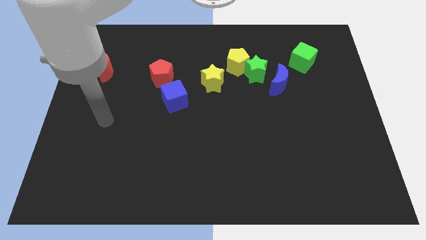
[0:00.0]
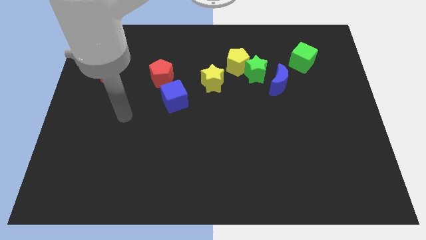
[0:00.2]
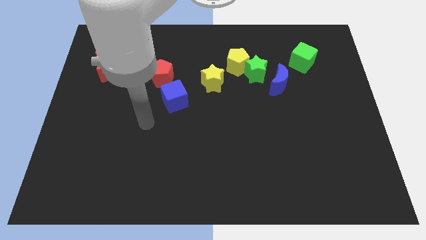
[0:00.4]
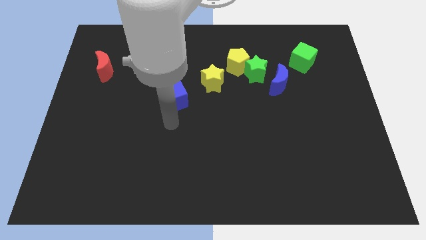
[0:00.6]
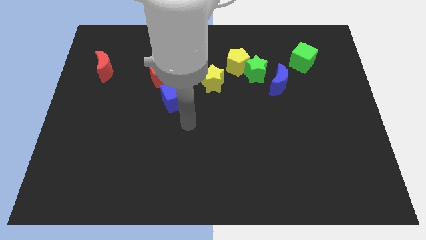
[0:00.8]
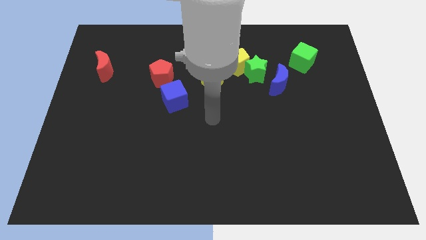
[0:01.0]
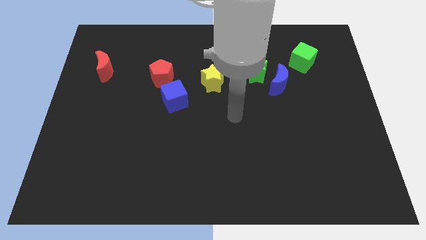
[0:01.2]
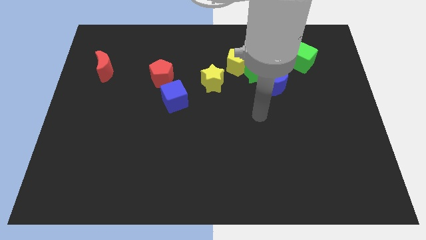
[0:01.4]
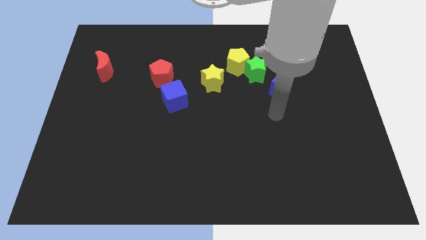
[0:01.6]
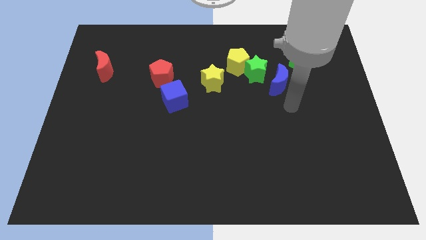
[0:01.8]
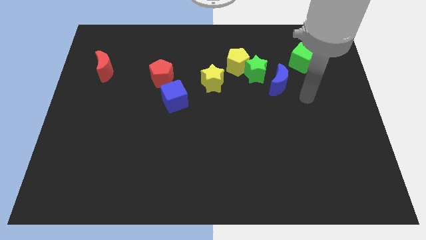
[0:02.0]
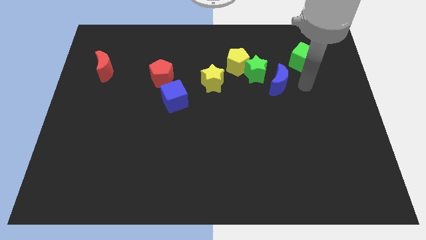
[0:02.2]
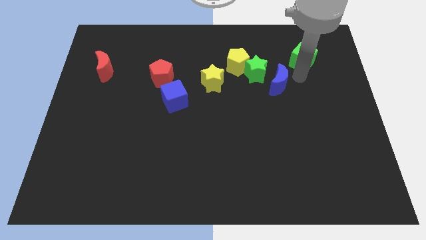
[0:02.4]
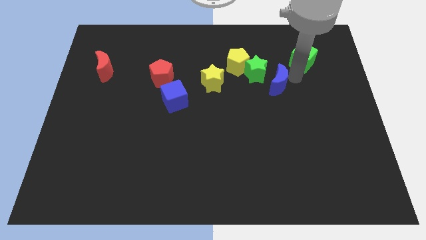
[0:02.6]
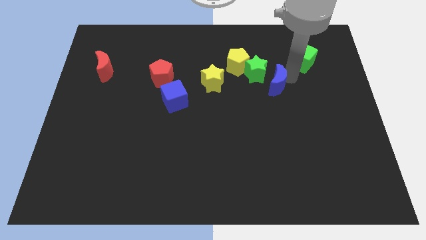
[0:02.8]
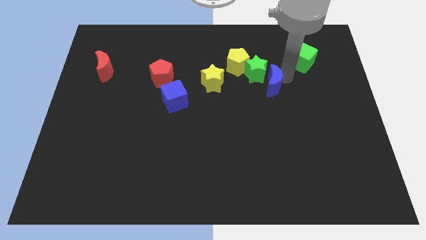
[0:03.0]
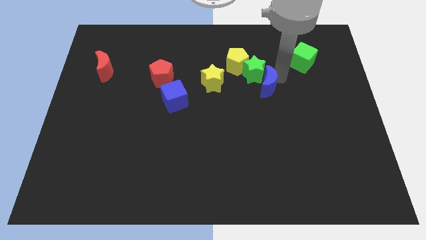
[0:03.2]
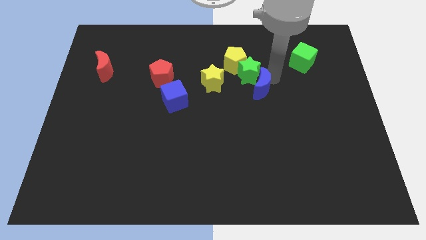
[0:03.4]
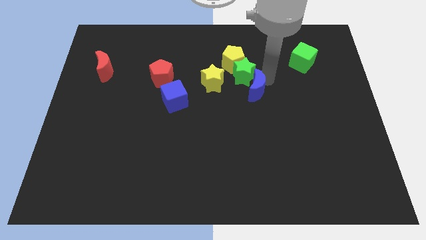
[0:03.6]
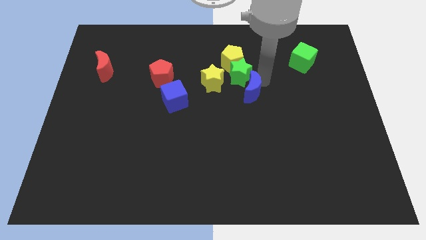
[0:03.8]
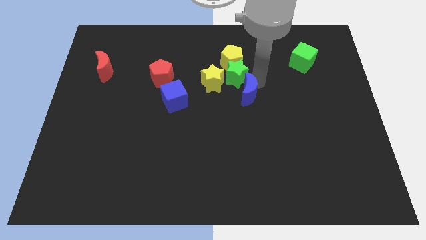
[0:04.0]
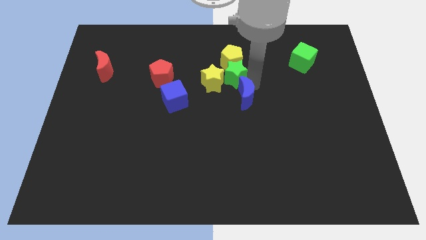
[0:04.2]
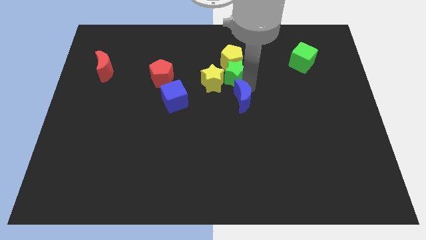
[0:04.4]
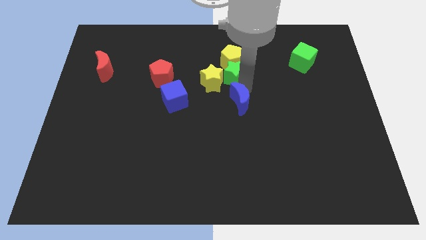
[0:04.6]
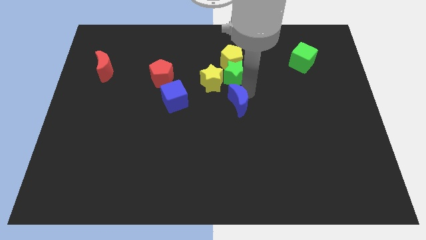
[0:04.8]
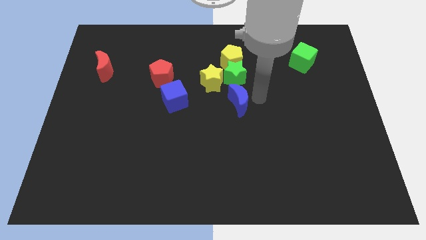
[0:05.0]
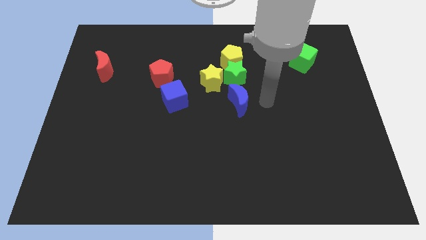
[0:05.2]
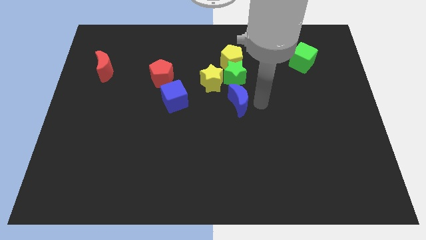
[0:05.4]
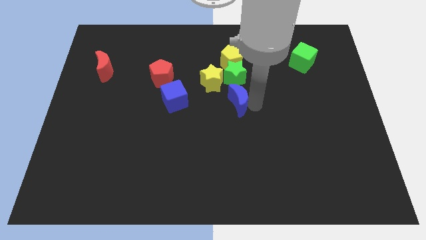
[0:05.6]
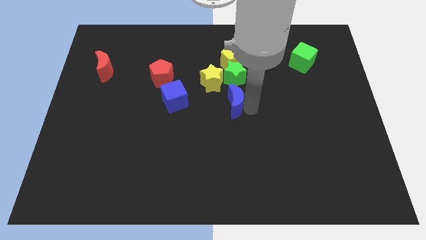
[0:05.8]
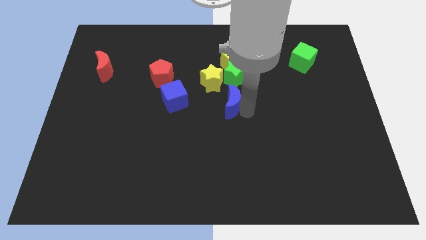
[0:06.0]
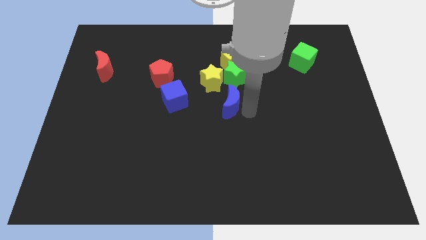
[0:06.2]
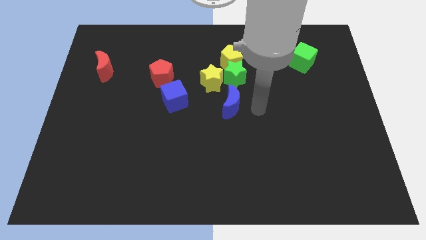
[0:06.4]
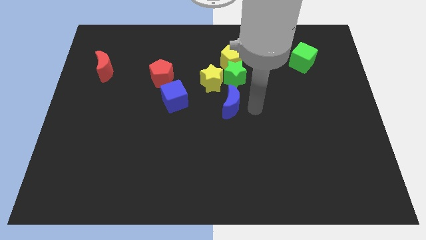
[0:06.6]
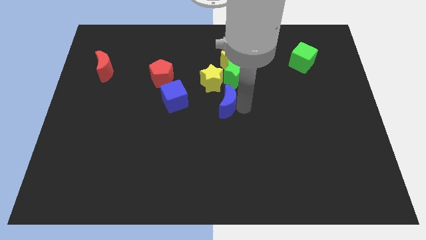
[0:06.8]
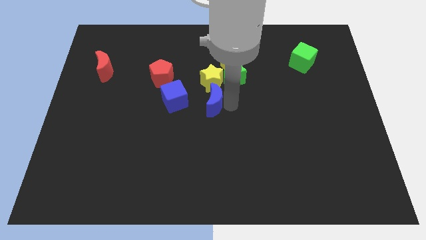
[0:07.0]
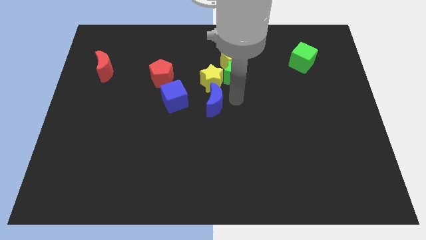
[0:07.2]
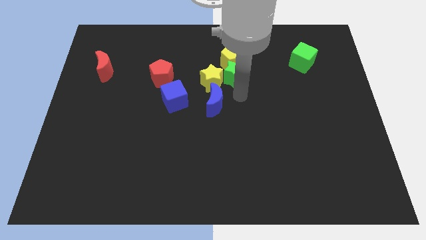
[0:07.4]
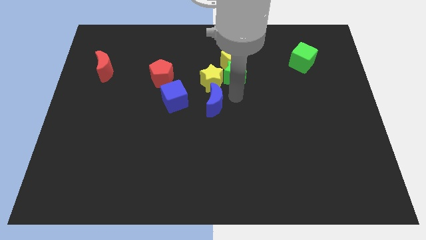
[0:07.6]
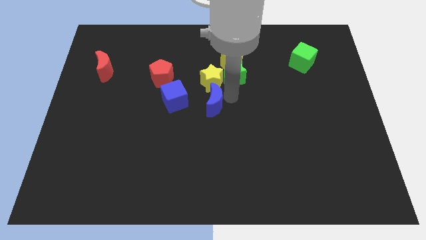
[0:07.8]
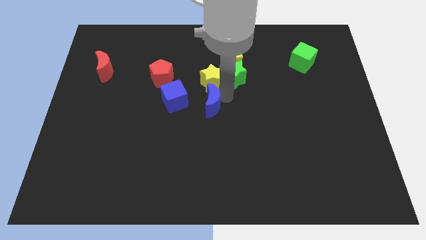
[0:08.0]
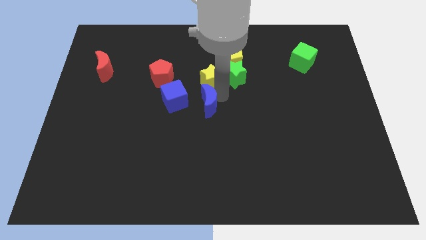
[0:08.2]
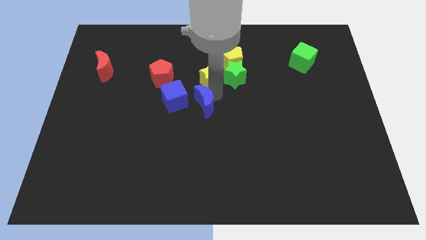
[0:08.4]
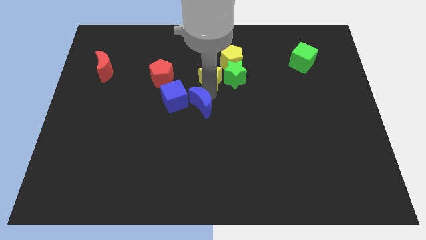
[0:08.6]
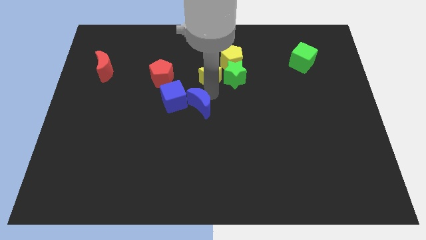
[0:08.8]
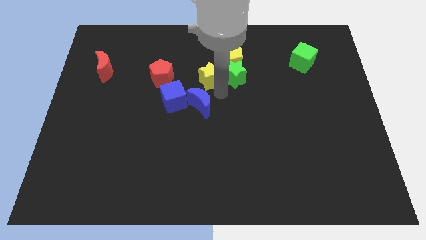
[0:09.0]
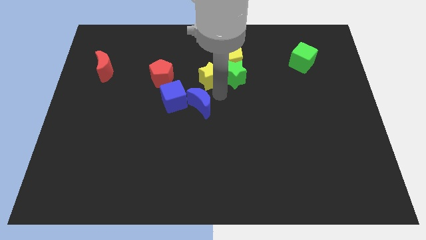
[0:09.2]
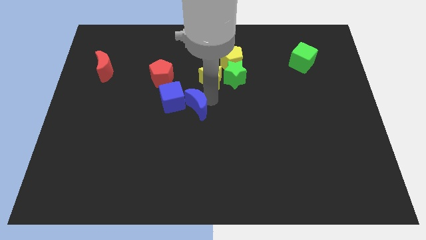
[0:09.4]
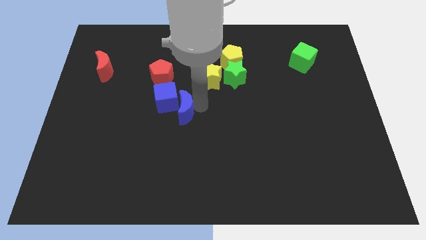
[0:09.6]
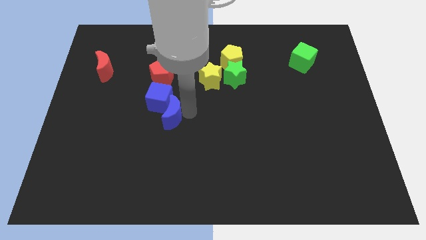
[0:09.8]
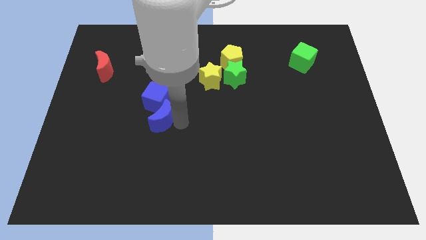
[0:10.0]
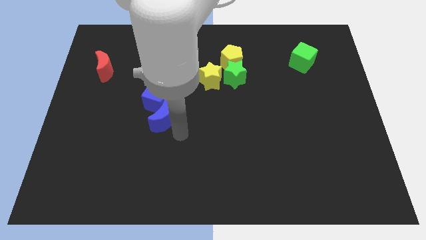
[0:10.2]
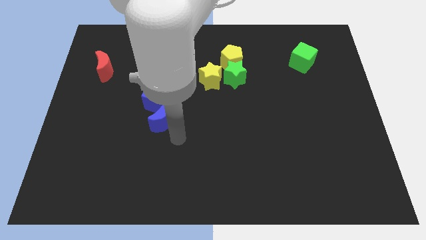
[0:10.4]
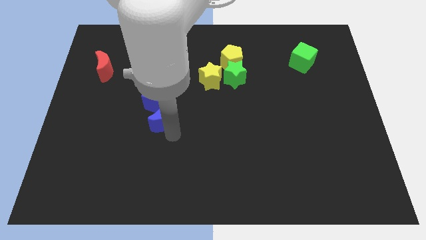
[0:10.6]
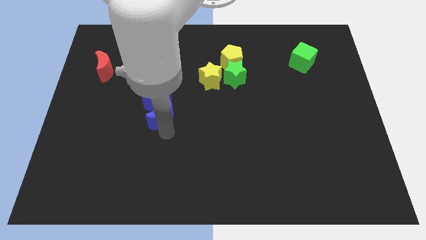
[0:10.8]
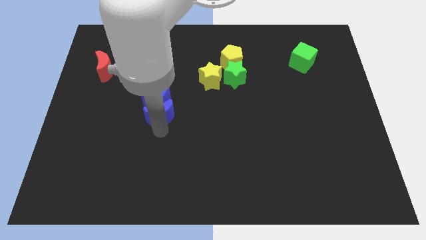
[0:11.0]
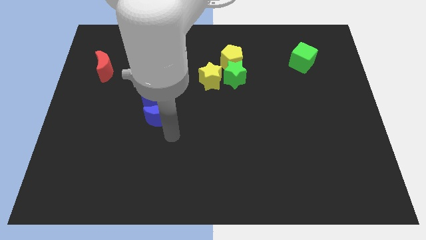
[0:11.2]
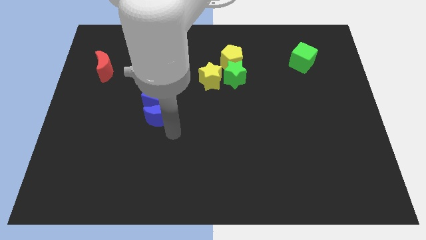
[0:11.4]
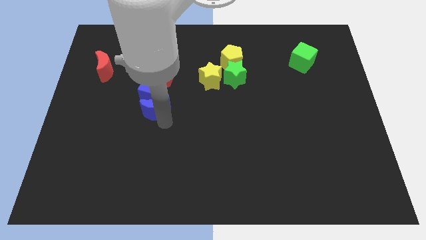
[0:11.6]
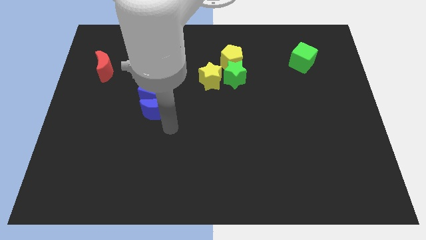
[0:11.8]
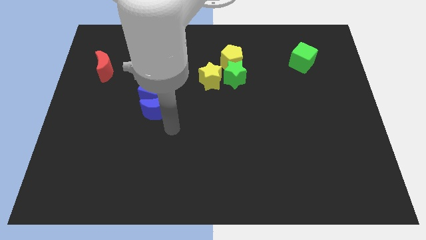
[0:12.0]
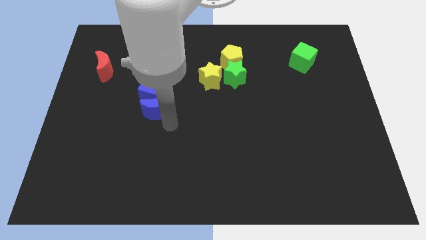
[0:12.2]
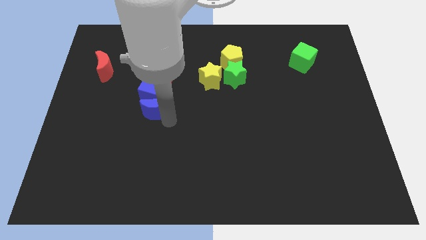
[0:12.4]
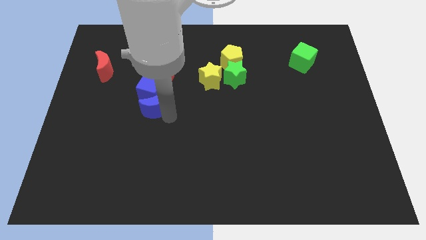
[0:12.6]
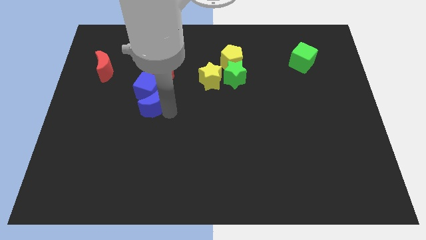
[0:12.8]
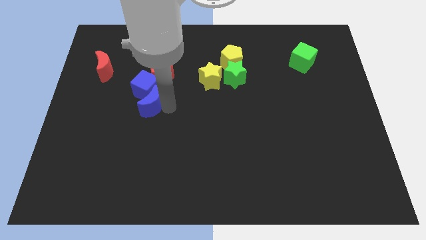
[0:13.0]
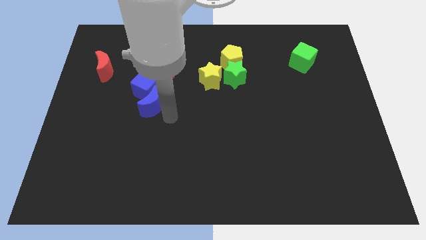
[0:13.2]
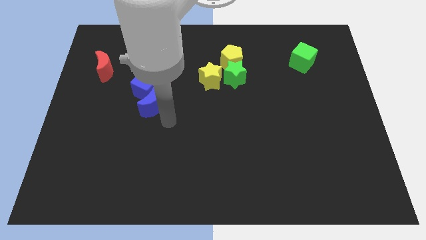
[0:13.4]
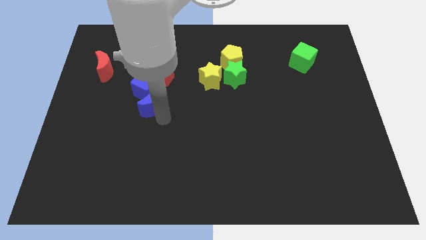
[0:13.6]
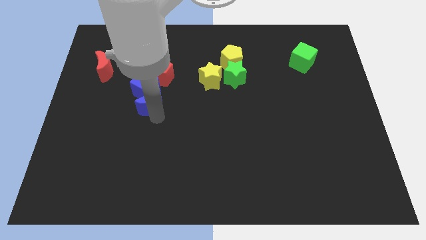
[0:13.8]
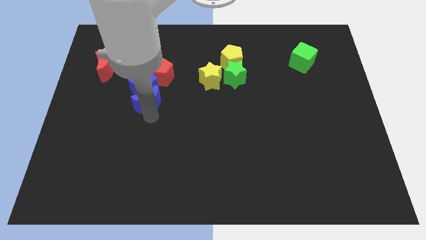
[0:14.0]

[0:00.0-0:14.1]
push the blue moon to the bottom left side of the red pentagon

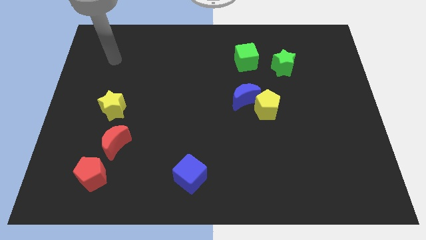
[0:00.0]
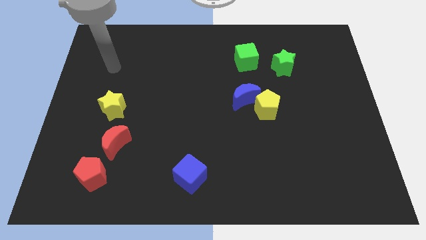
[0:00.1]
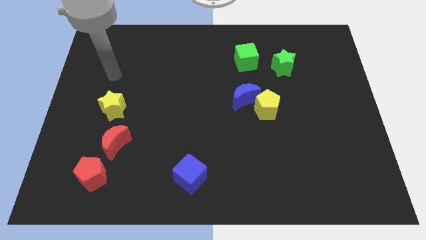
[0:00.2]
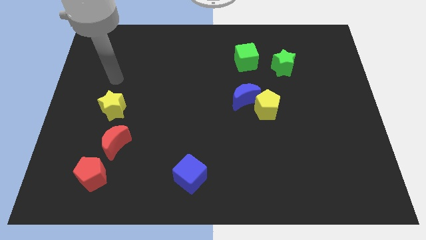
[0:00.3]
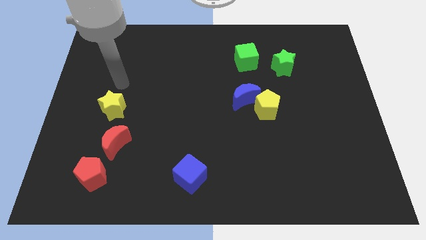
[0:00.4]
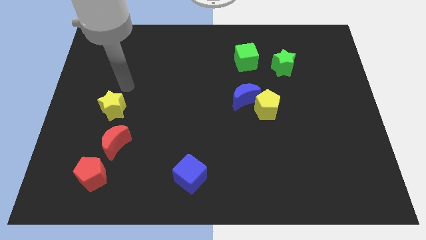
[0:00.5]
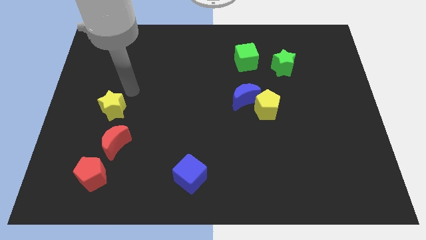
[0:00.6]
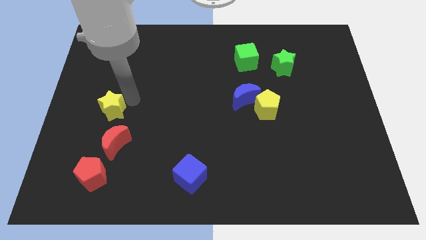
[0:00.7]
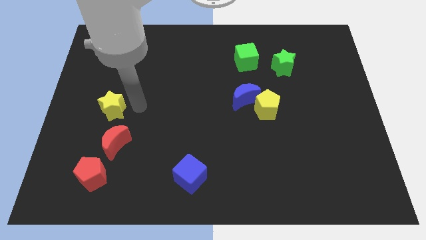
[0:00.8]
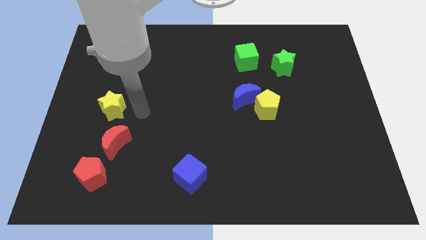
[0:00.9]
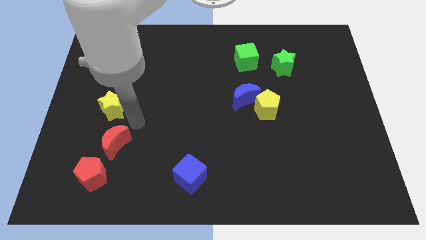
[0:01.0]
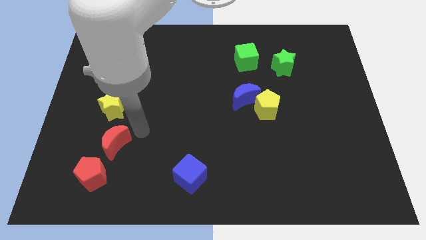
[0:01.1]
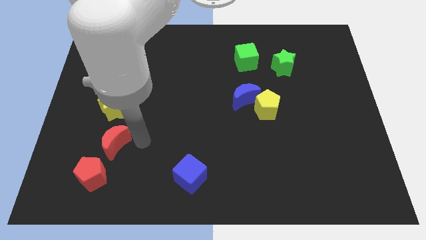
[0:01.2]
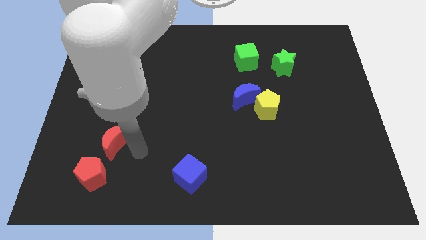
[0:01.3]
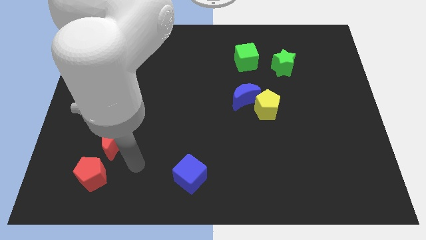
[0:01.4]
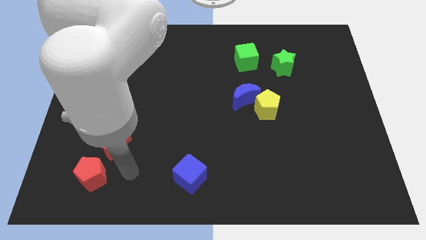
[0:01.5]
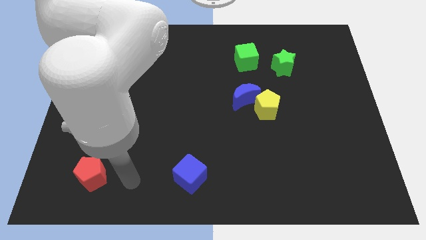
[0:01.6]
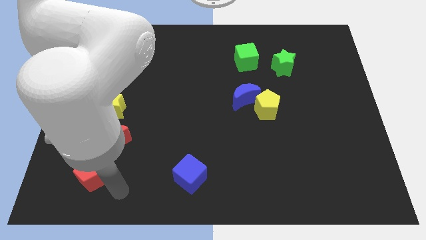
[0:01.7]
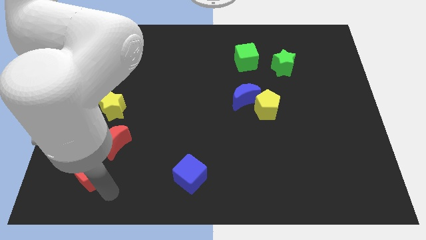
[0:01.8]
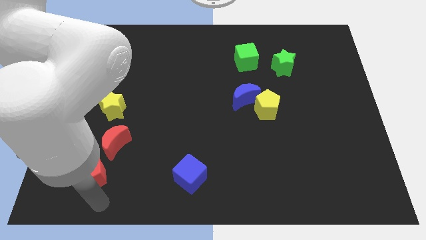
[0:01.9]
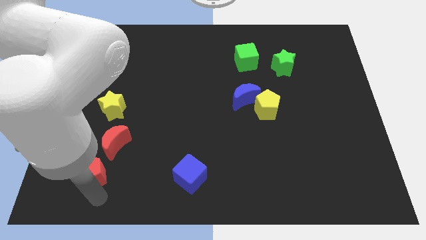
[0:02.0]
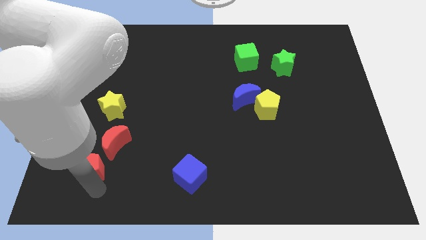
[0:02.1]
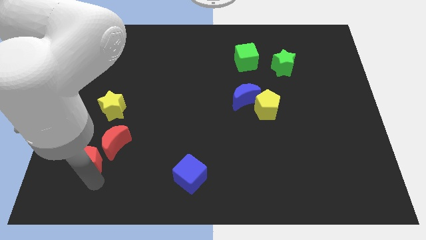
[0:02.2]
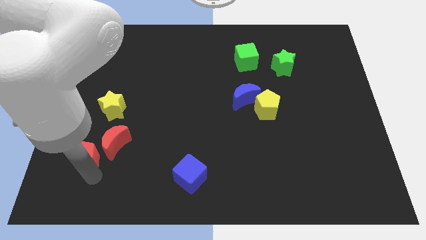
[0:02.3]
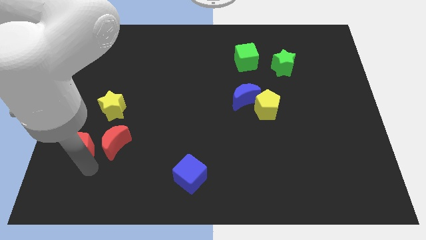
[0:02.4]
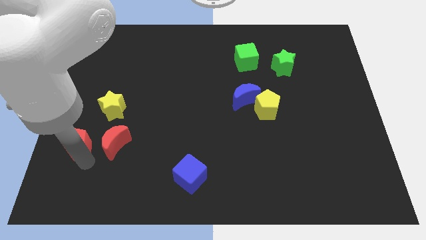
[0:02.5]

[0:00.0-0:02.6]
push the red pentagon diagonally down and to the left of the yellow star
